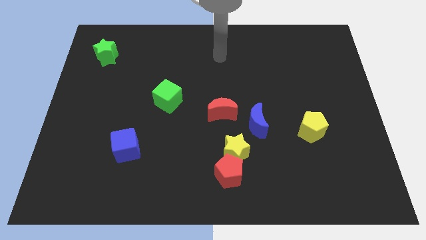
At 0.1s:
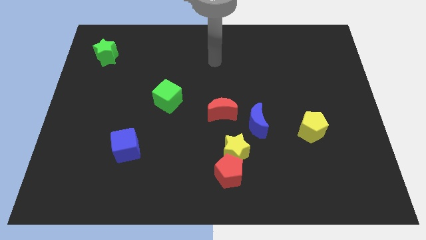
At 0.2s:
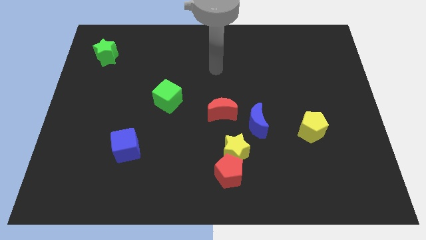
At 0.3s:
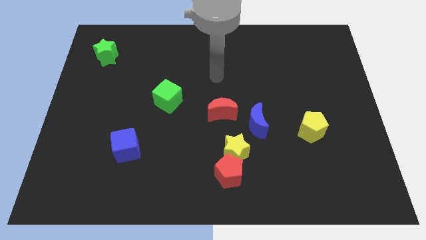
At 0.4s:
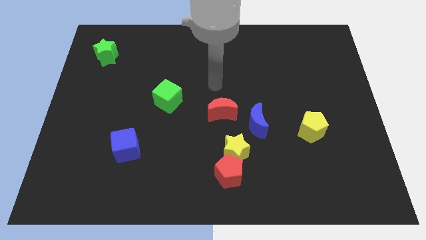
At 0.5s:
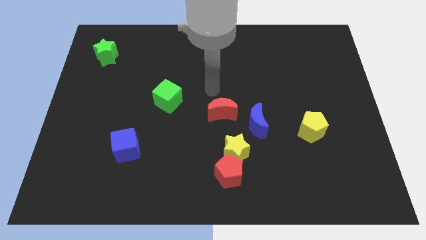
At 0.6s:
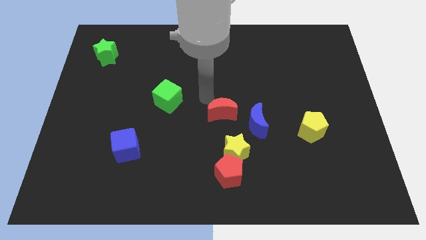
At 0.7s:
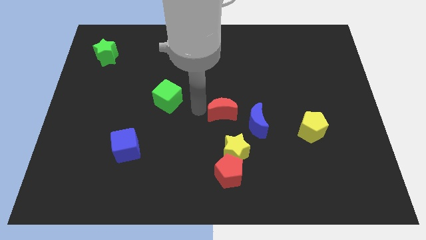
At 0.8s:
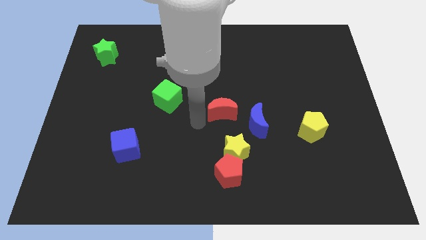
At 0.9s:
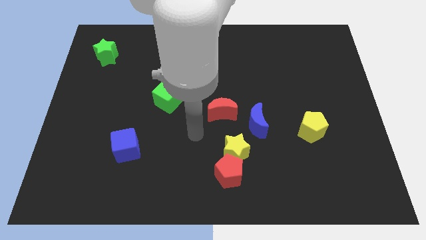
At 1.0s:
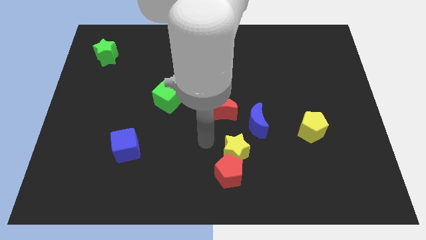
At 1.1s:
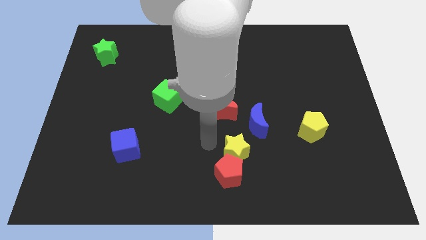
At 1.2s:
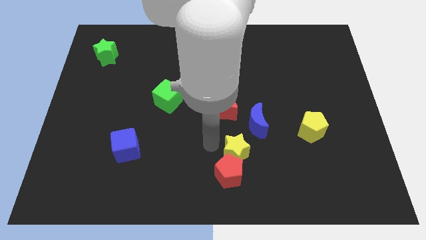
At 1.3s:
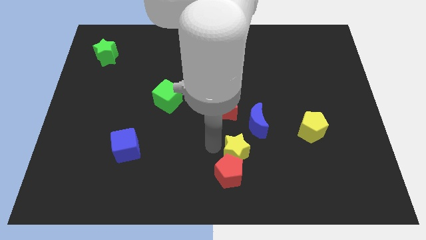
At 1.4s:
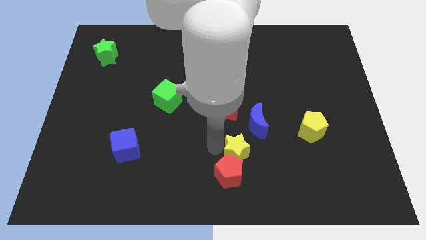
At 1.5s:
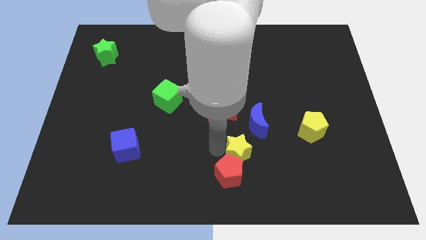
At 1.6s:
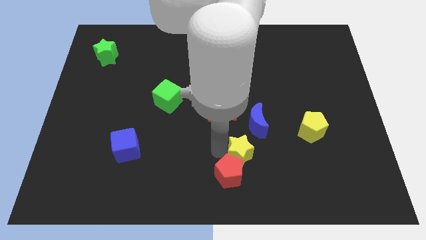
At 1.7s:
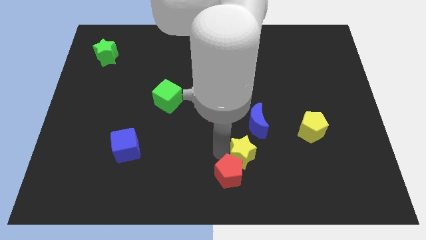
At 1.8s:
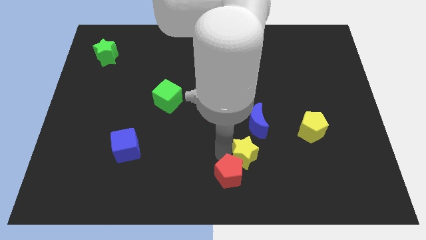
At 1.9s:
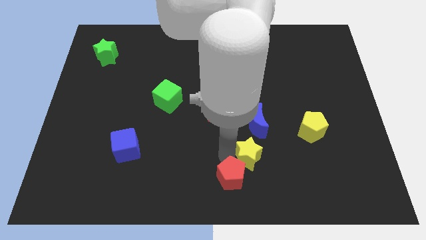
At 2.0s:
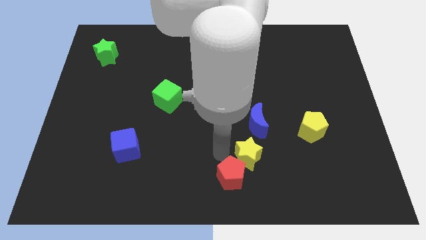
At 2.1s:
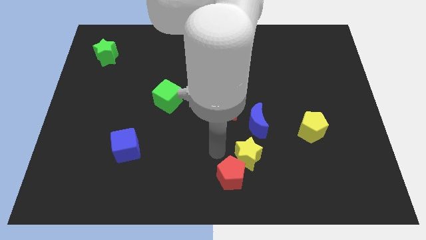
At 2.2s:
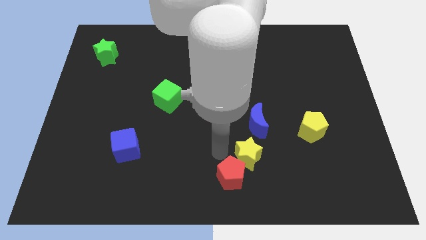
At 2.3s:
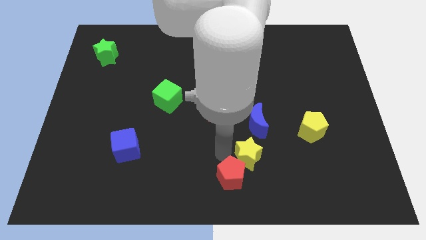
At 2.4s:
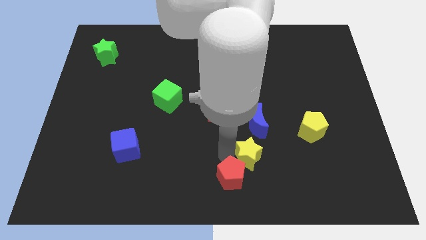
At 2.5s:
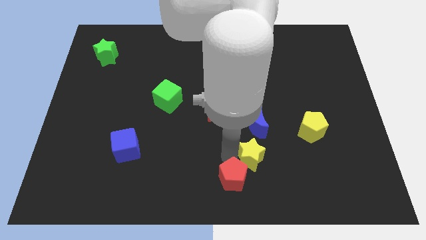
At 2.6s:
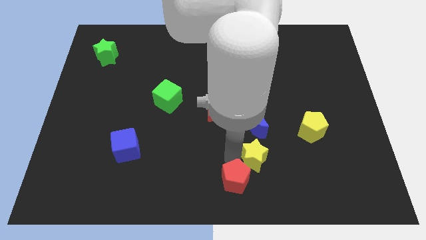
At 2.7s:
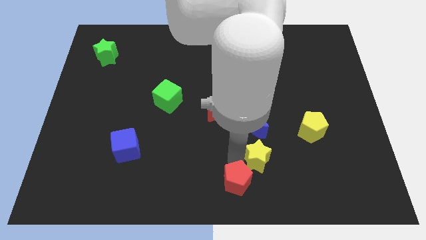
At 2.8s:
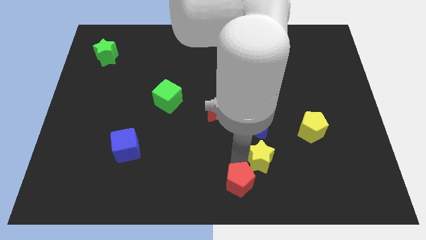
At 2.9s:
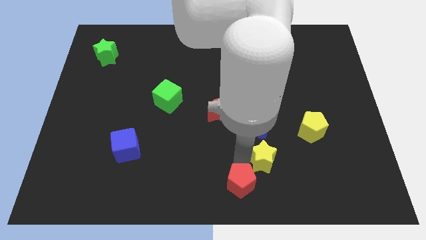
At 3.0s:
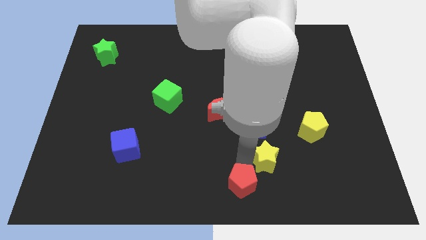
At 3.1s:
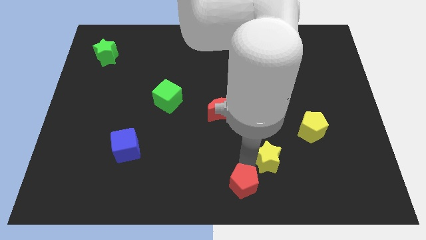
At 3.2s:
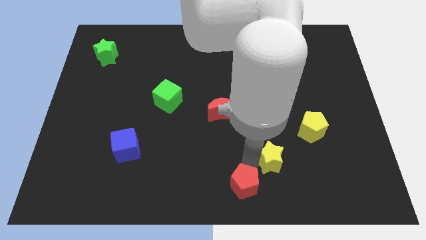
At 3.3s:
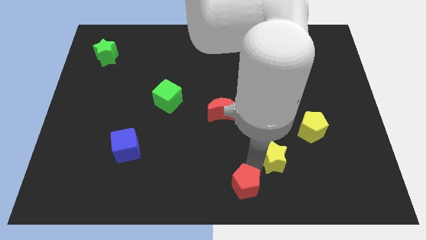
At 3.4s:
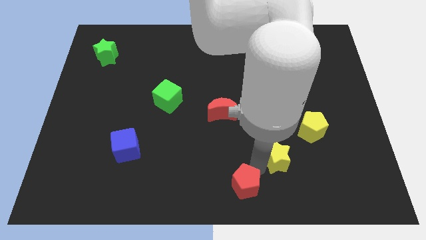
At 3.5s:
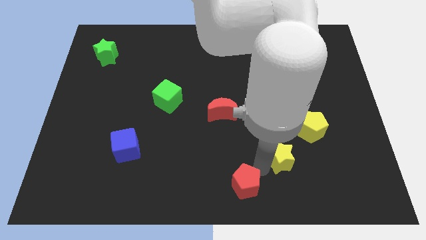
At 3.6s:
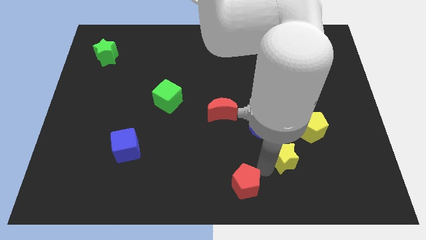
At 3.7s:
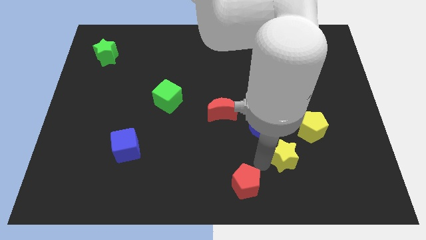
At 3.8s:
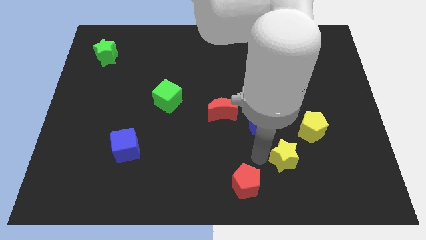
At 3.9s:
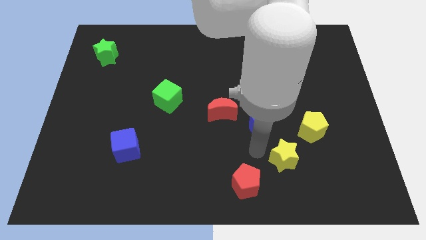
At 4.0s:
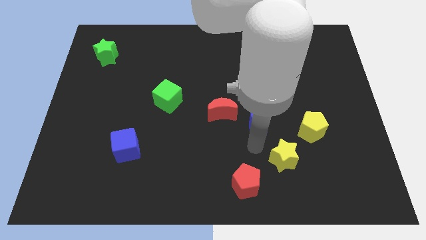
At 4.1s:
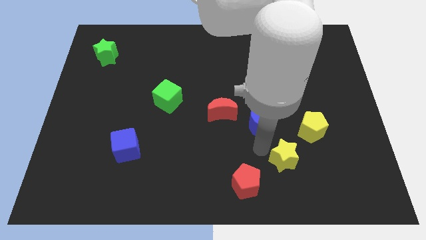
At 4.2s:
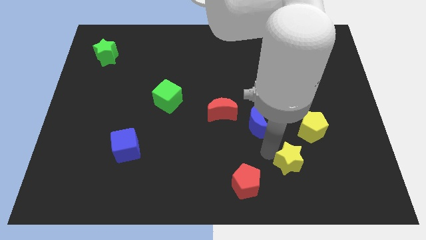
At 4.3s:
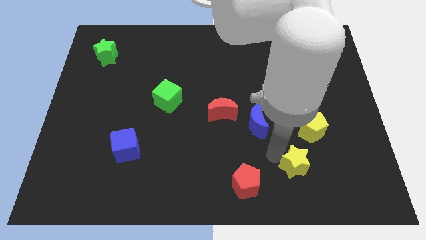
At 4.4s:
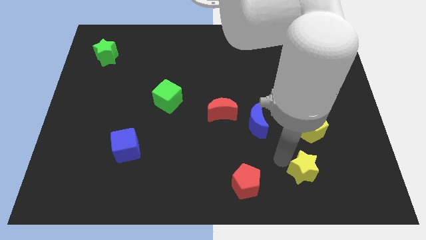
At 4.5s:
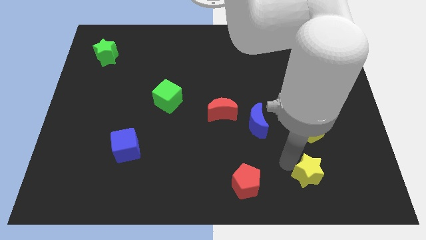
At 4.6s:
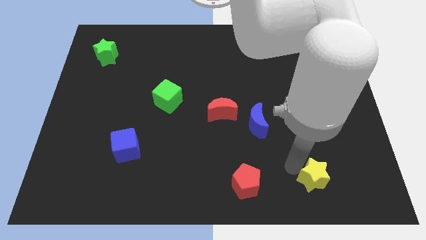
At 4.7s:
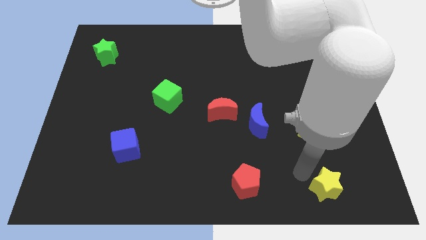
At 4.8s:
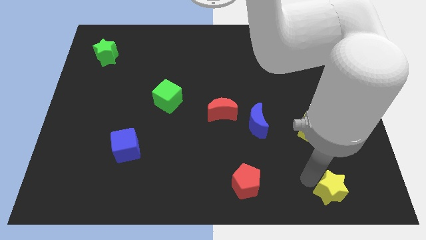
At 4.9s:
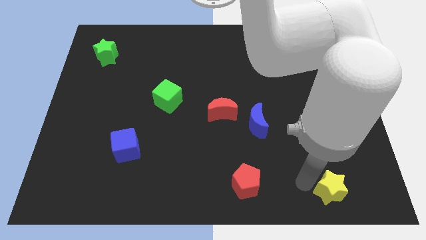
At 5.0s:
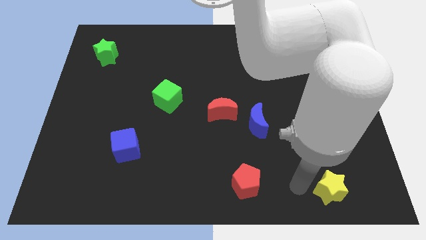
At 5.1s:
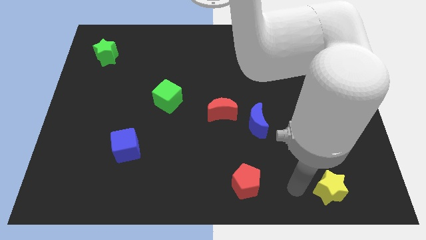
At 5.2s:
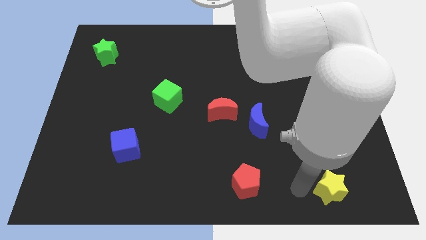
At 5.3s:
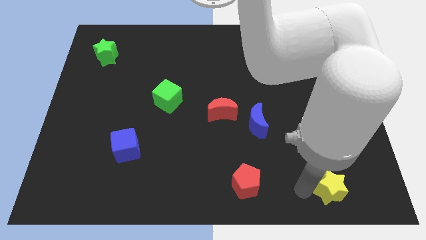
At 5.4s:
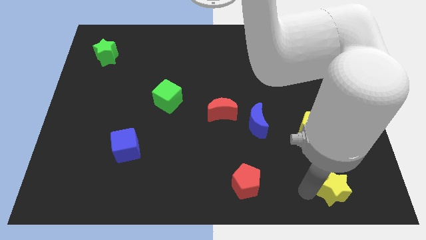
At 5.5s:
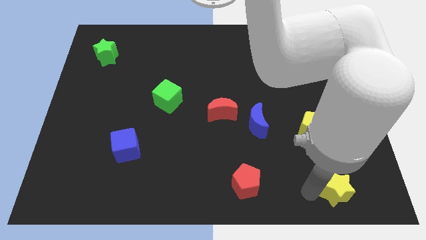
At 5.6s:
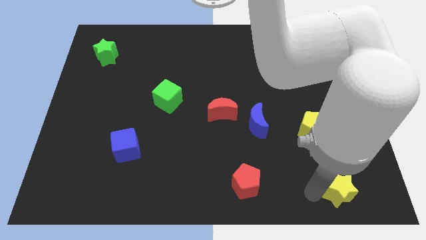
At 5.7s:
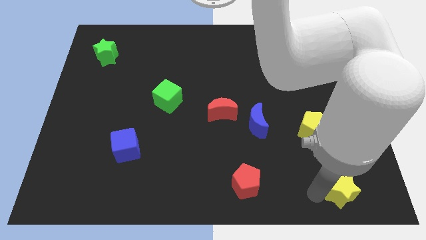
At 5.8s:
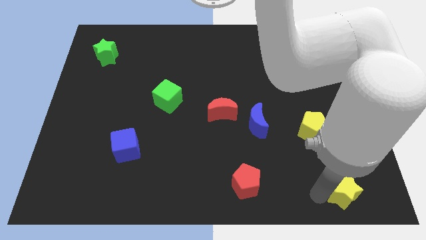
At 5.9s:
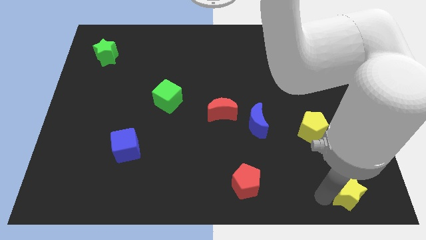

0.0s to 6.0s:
slide the yellow star to the lower right corner

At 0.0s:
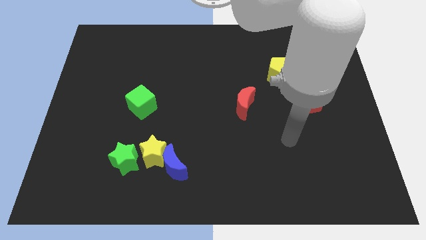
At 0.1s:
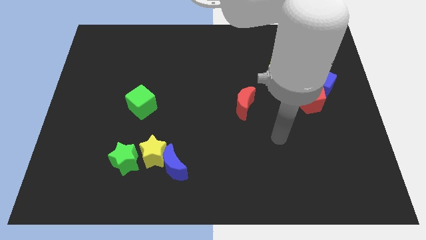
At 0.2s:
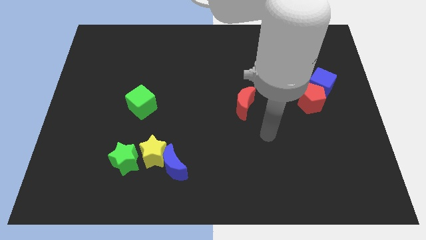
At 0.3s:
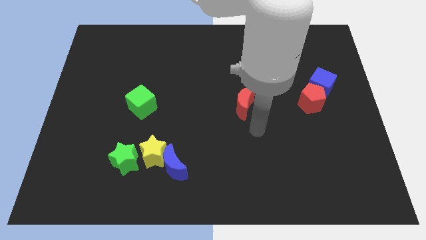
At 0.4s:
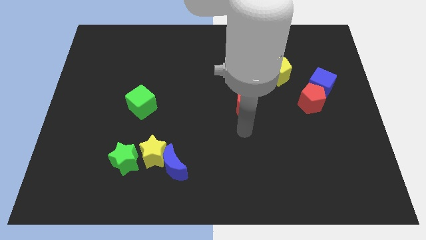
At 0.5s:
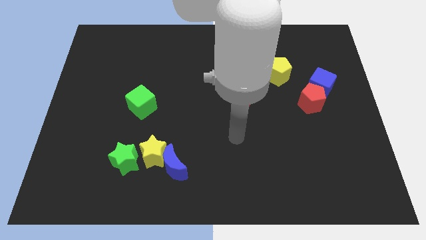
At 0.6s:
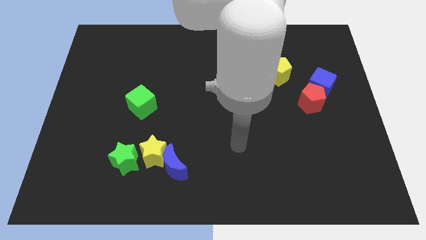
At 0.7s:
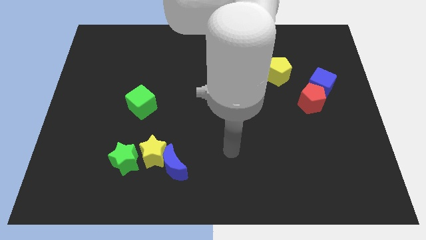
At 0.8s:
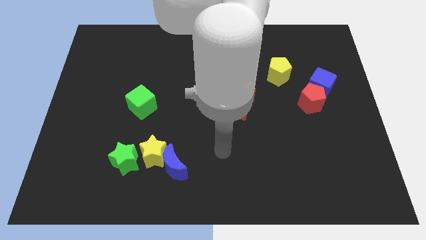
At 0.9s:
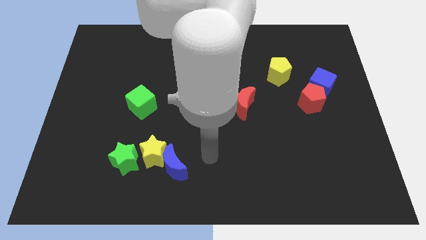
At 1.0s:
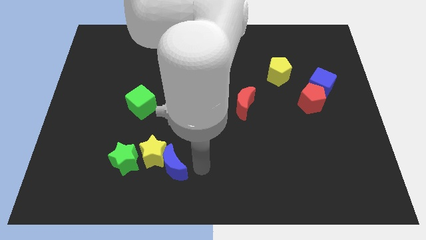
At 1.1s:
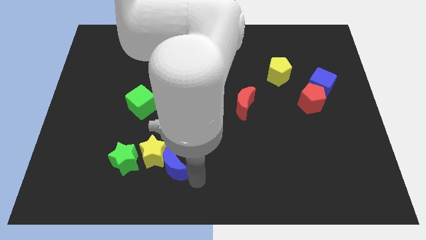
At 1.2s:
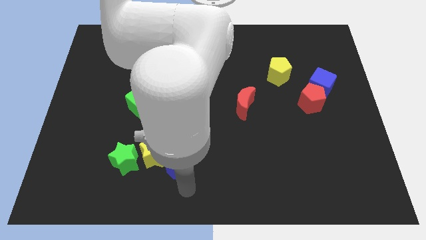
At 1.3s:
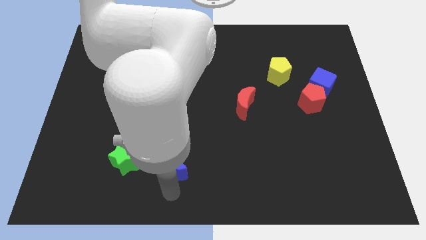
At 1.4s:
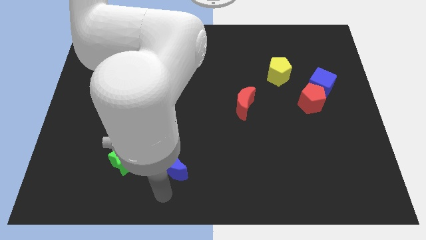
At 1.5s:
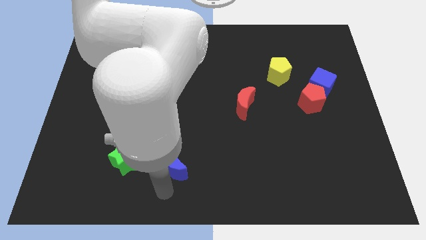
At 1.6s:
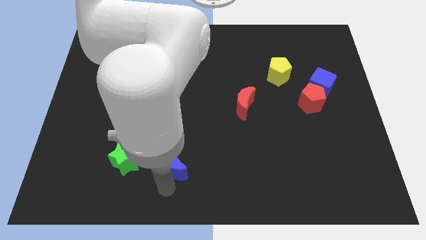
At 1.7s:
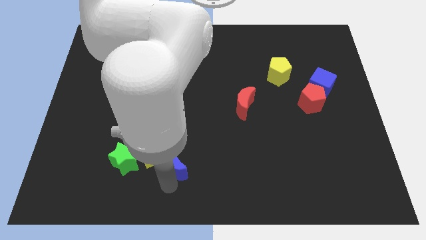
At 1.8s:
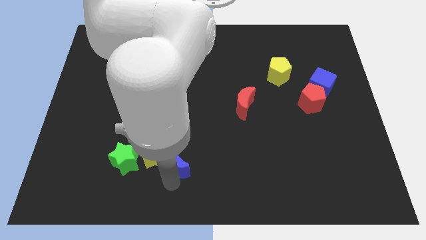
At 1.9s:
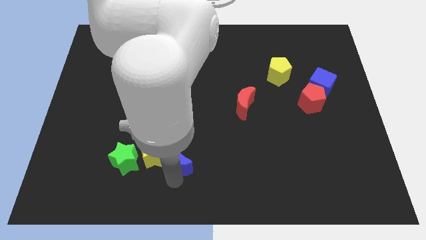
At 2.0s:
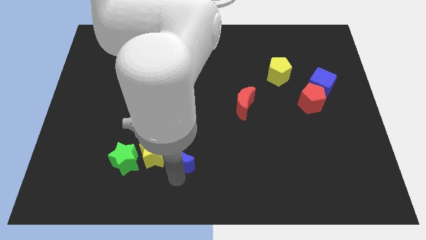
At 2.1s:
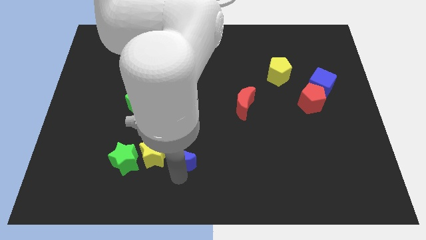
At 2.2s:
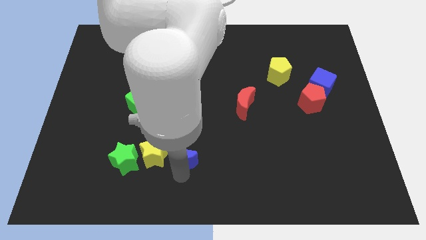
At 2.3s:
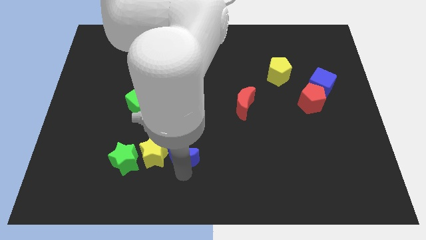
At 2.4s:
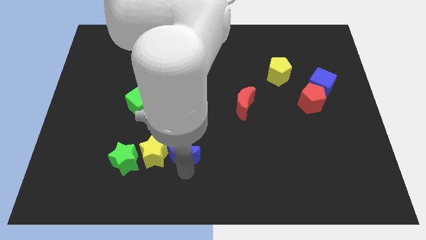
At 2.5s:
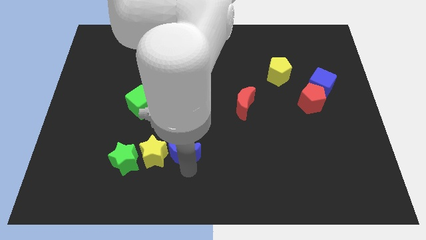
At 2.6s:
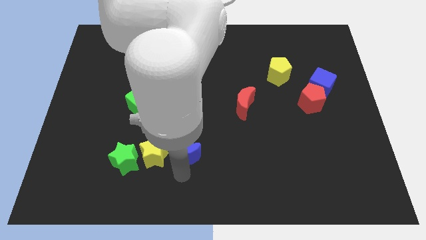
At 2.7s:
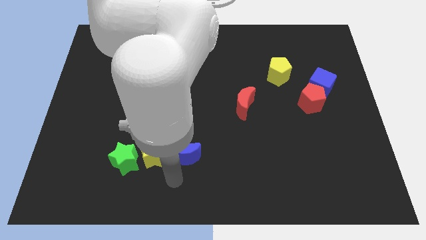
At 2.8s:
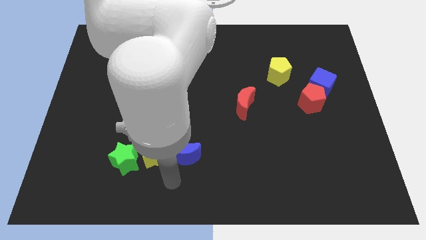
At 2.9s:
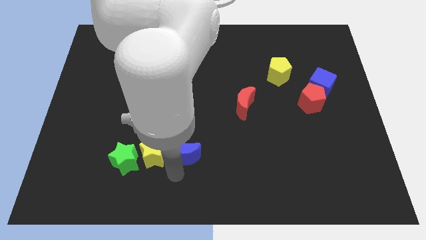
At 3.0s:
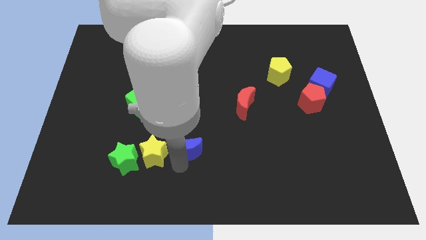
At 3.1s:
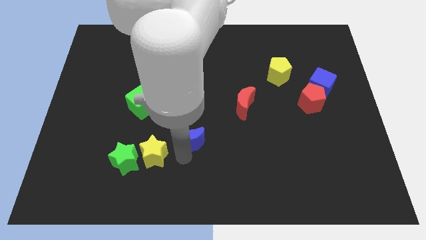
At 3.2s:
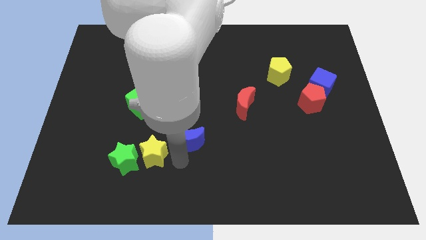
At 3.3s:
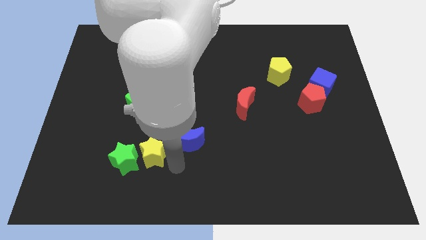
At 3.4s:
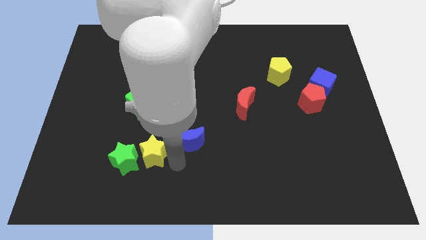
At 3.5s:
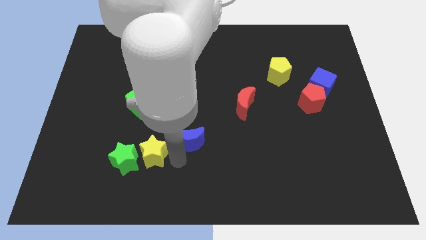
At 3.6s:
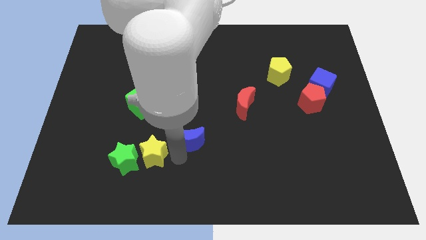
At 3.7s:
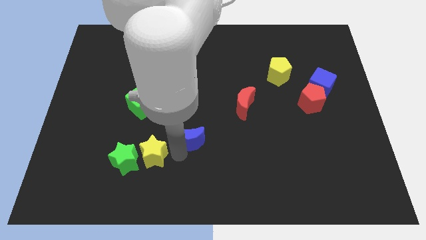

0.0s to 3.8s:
push the blue moon to the middle of the board
